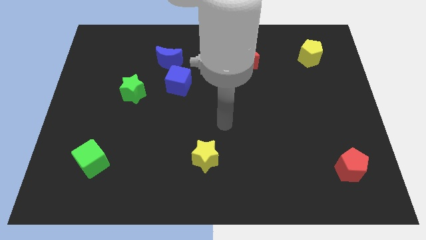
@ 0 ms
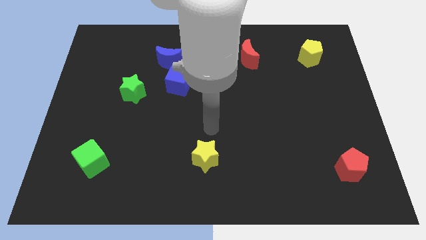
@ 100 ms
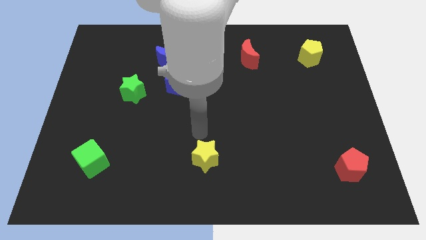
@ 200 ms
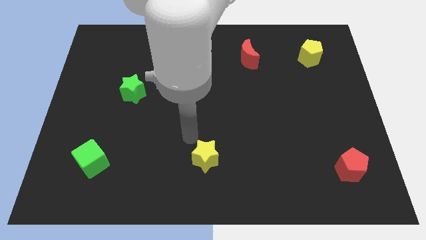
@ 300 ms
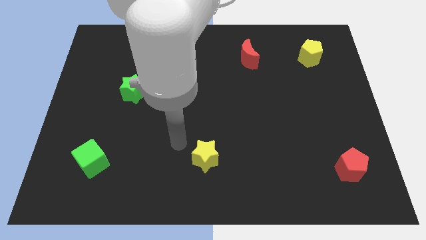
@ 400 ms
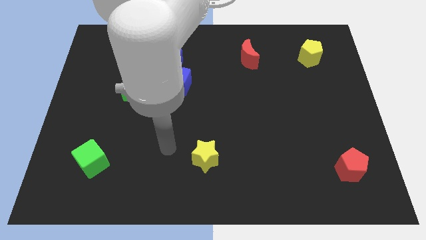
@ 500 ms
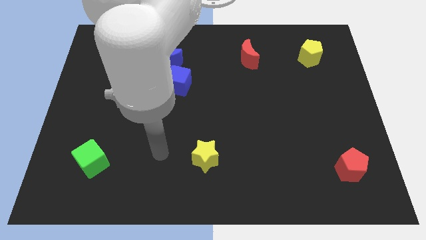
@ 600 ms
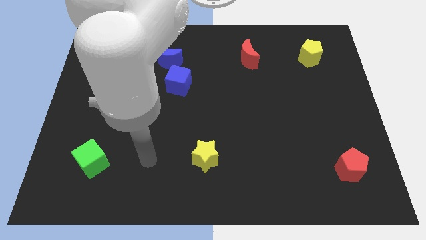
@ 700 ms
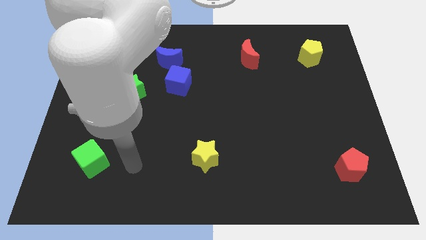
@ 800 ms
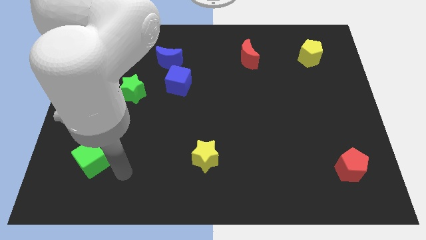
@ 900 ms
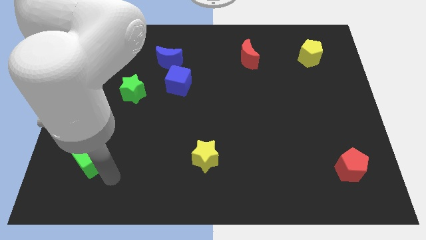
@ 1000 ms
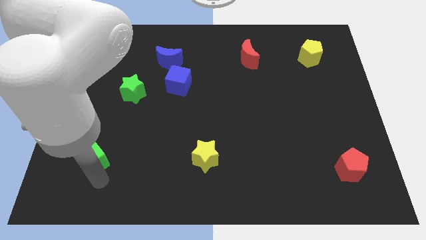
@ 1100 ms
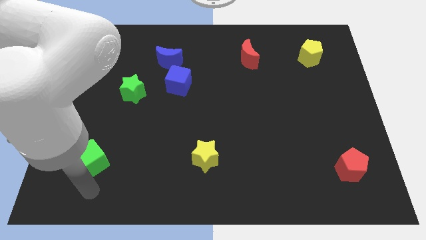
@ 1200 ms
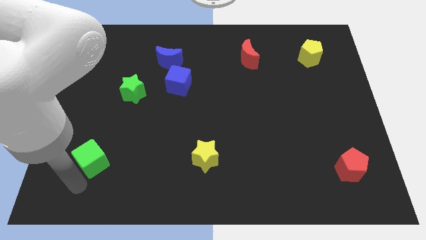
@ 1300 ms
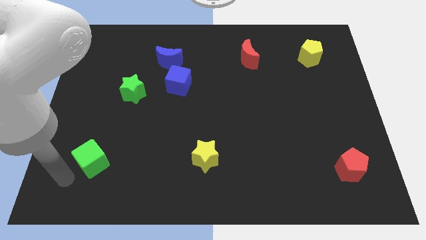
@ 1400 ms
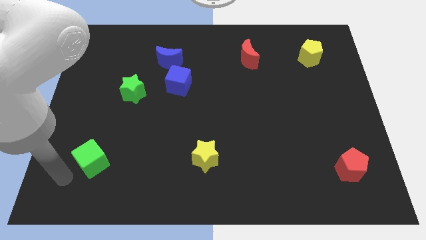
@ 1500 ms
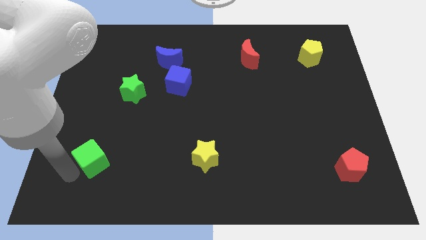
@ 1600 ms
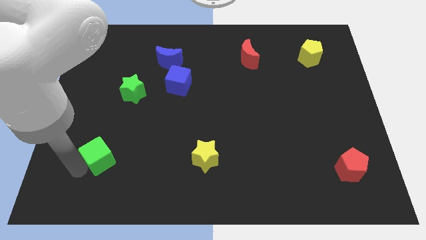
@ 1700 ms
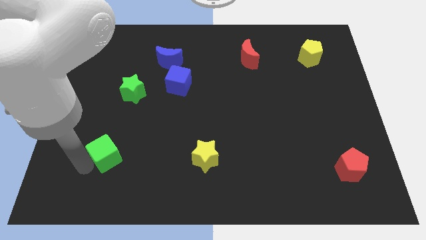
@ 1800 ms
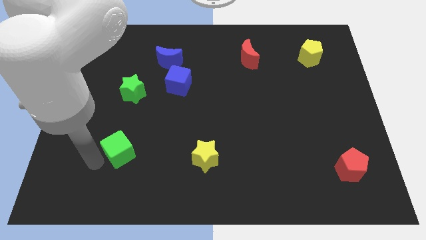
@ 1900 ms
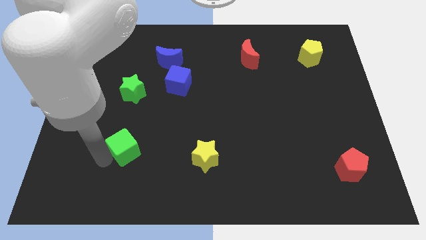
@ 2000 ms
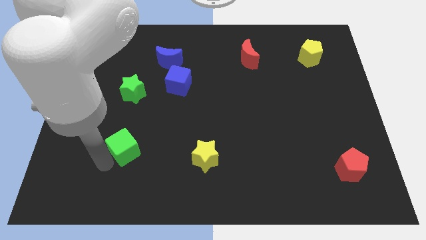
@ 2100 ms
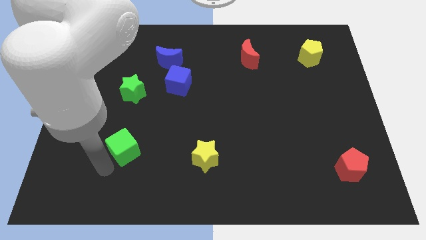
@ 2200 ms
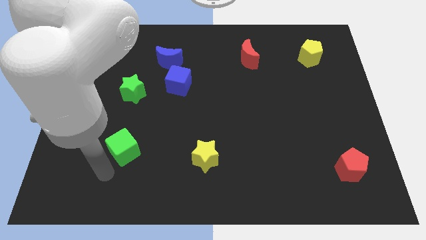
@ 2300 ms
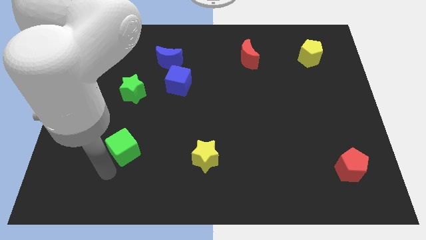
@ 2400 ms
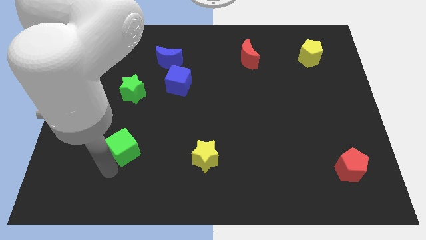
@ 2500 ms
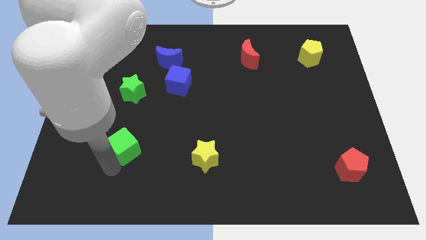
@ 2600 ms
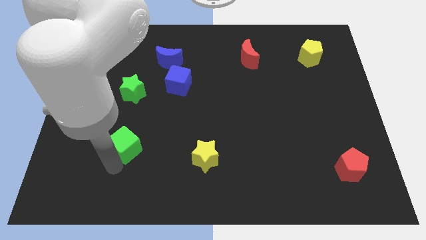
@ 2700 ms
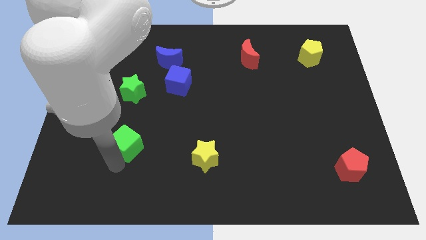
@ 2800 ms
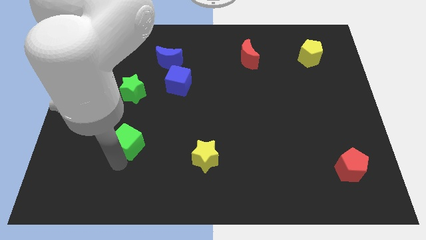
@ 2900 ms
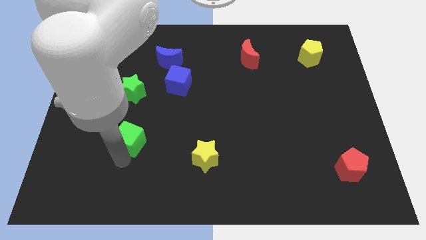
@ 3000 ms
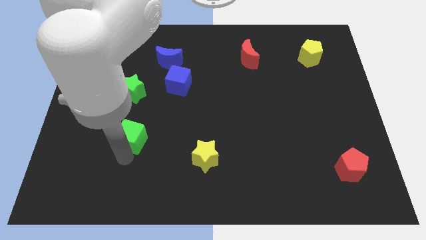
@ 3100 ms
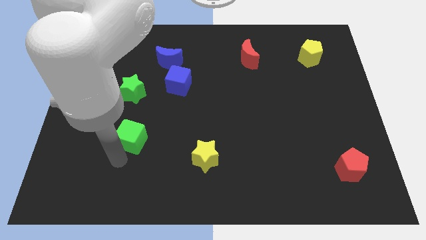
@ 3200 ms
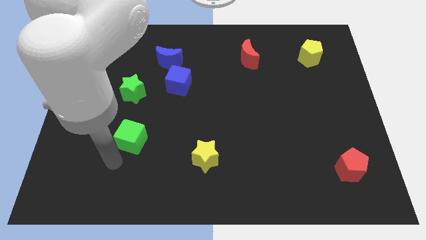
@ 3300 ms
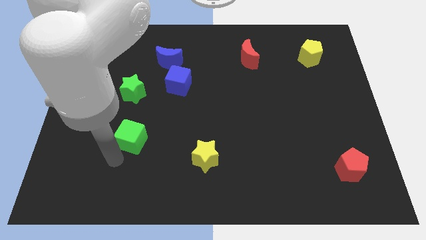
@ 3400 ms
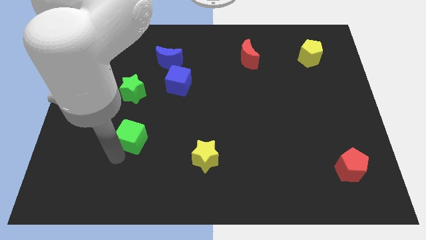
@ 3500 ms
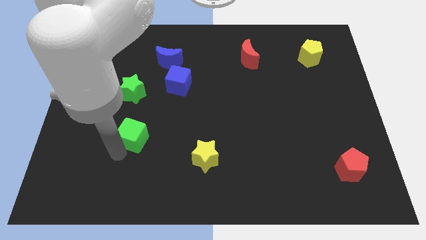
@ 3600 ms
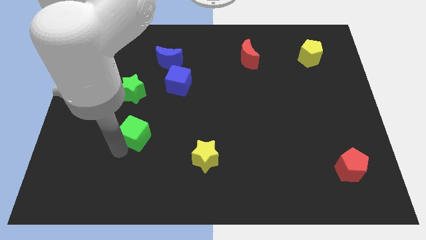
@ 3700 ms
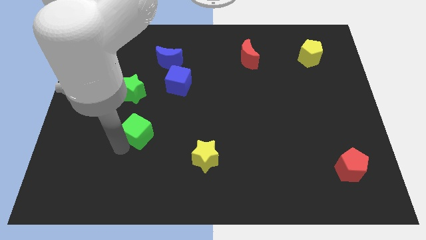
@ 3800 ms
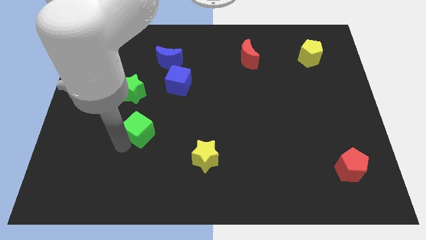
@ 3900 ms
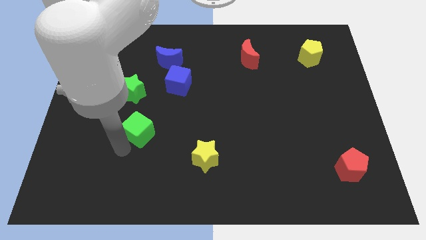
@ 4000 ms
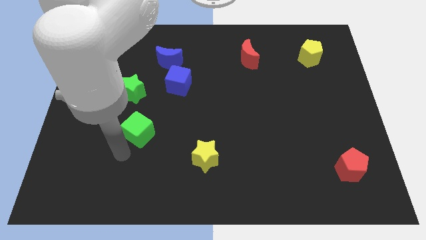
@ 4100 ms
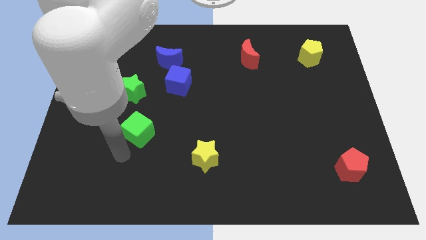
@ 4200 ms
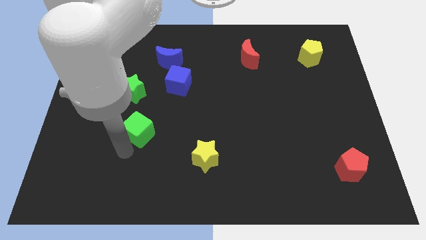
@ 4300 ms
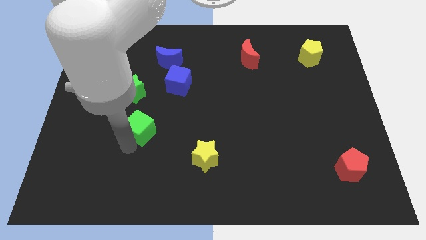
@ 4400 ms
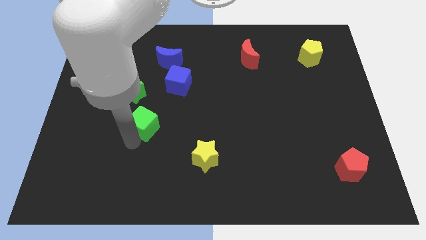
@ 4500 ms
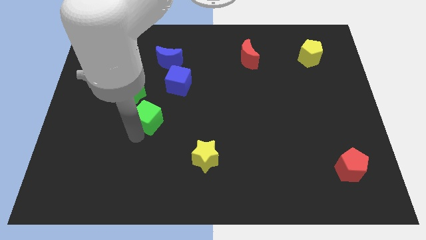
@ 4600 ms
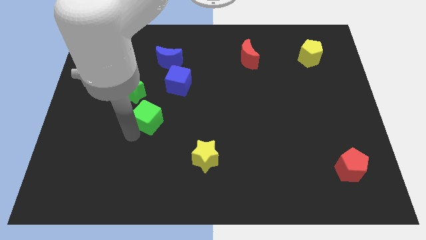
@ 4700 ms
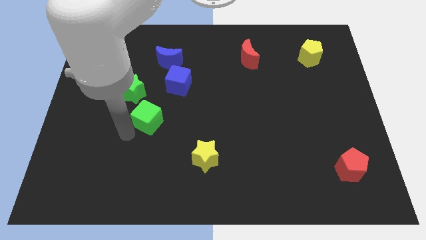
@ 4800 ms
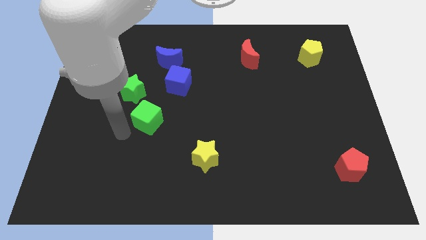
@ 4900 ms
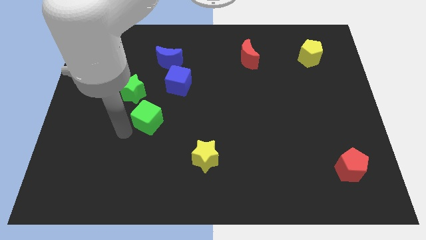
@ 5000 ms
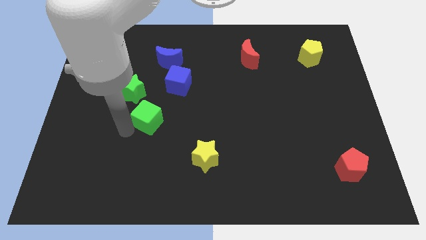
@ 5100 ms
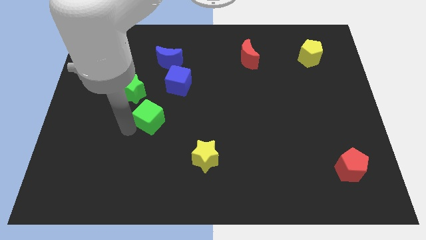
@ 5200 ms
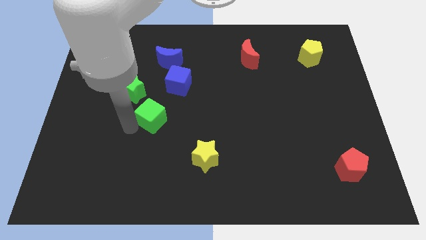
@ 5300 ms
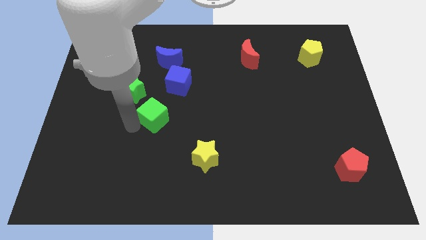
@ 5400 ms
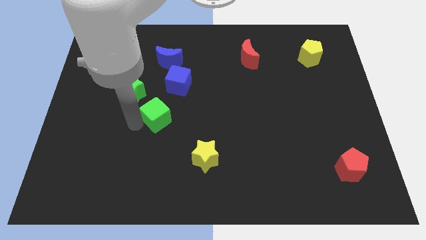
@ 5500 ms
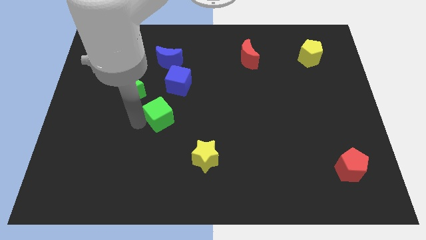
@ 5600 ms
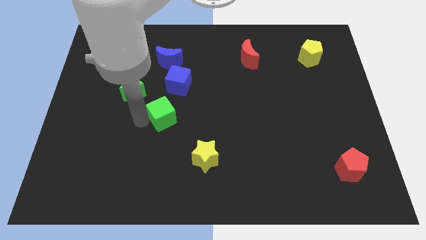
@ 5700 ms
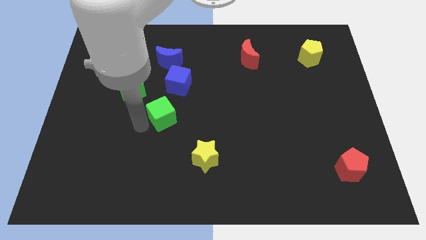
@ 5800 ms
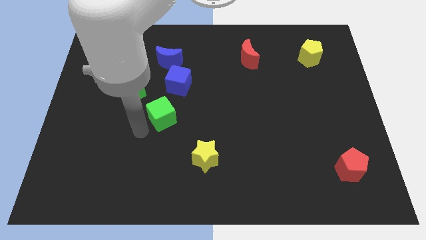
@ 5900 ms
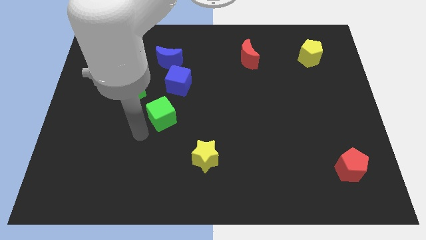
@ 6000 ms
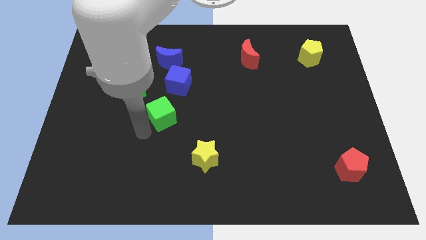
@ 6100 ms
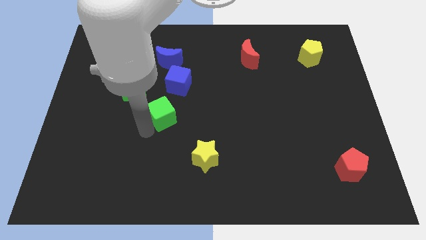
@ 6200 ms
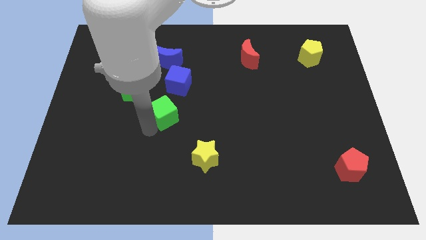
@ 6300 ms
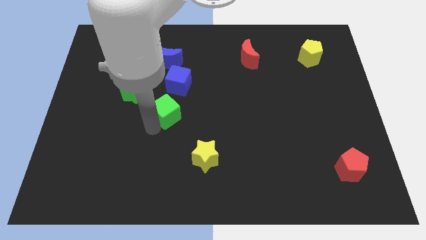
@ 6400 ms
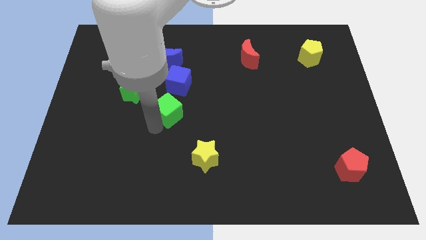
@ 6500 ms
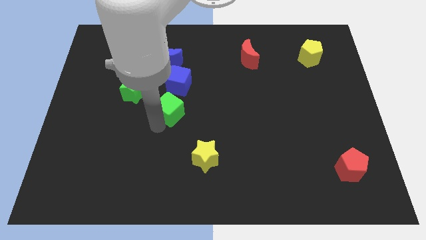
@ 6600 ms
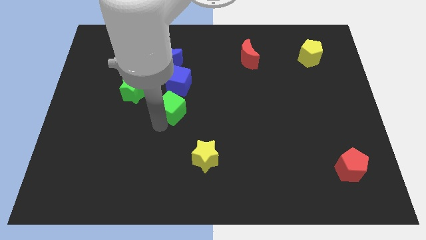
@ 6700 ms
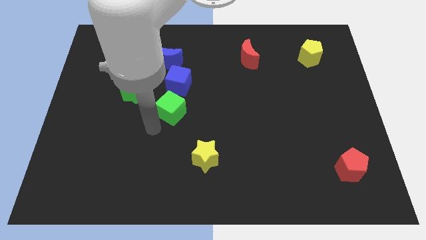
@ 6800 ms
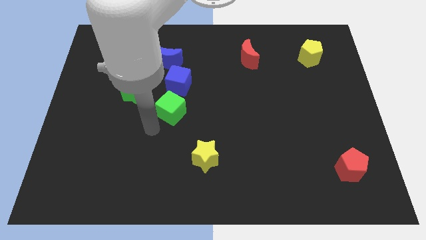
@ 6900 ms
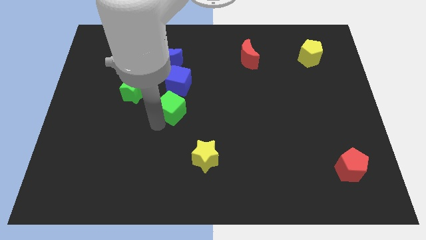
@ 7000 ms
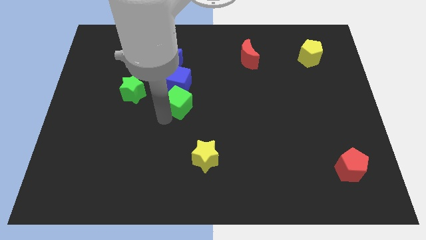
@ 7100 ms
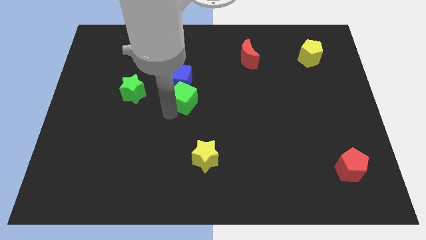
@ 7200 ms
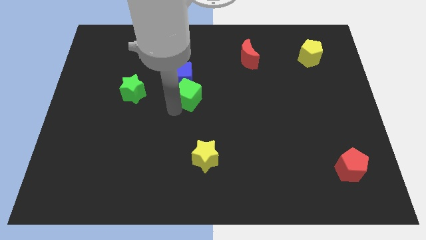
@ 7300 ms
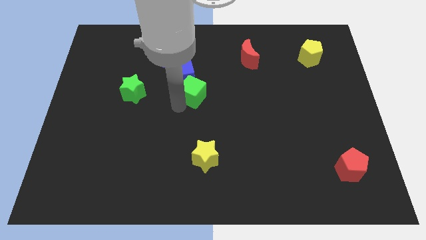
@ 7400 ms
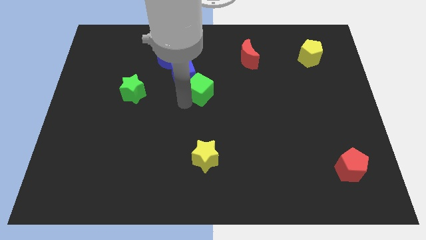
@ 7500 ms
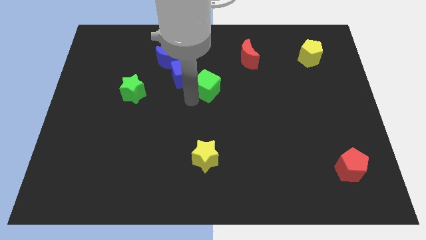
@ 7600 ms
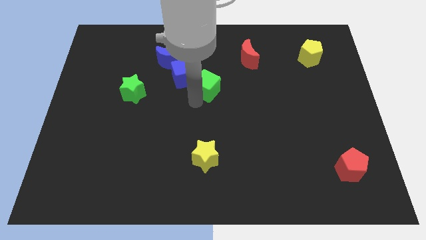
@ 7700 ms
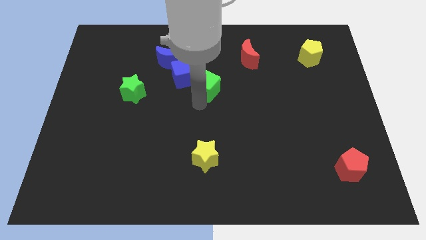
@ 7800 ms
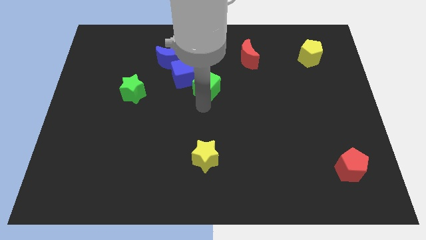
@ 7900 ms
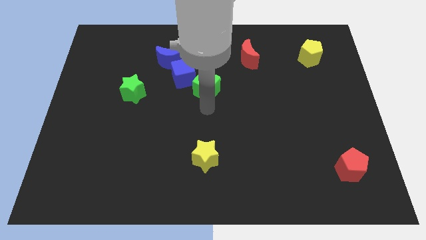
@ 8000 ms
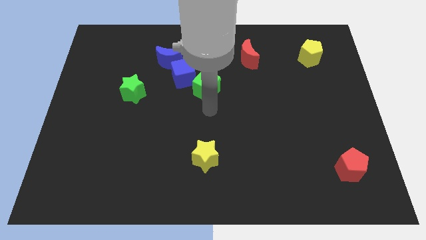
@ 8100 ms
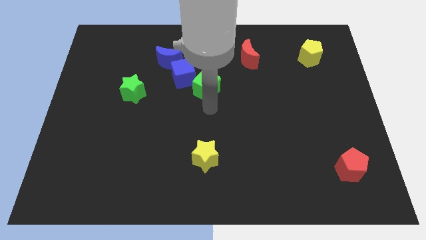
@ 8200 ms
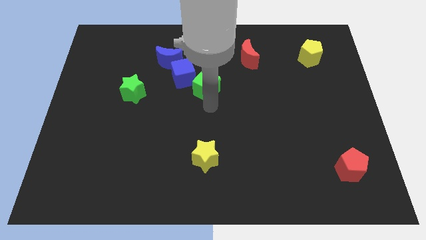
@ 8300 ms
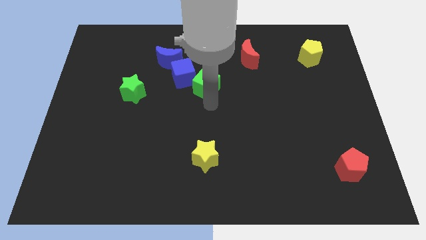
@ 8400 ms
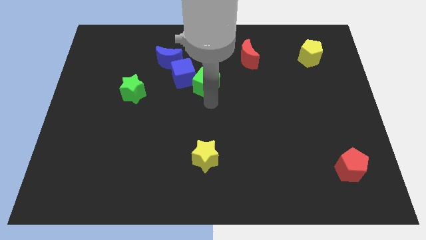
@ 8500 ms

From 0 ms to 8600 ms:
move the green cube to the bottom right side of the blue moon
